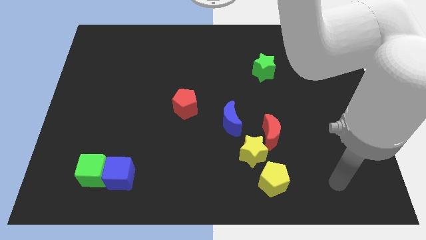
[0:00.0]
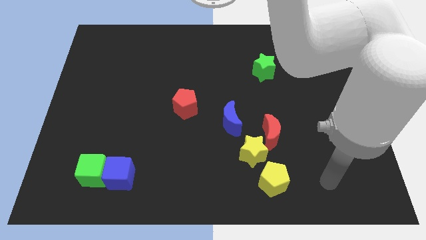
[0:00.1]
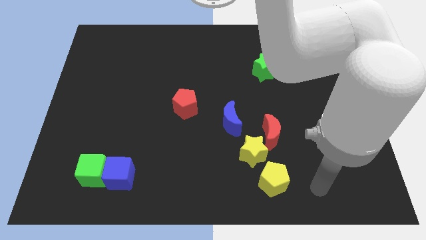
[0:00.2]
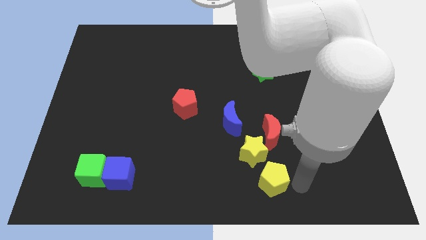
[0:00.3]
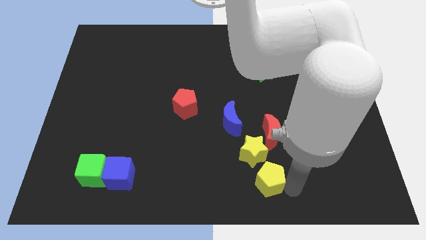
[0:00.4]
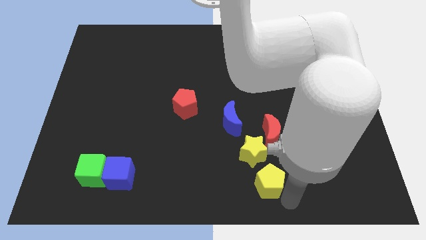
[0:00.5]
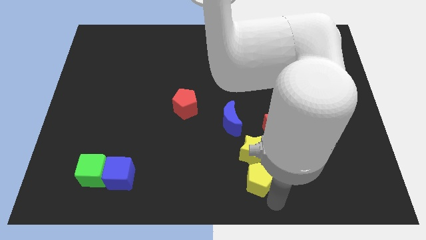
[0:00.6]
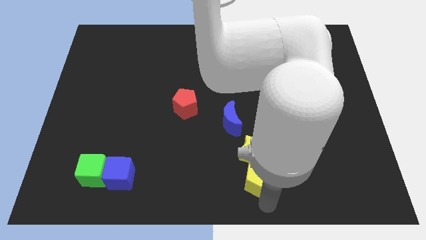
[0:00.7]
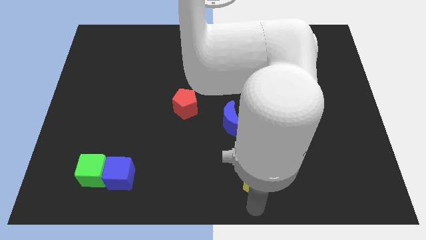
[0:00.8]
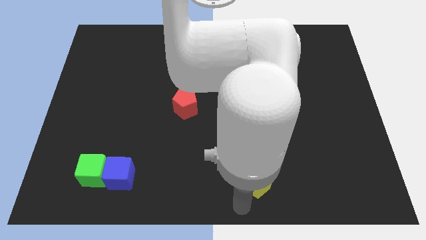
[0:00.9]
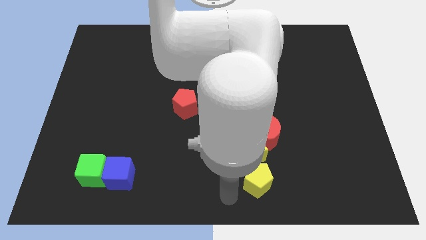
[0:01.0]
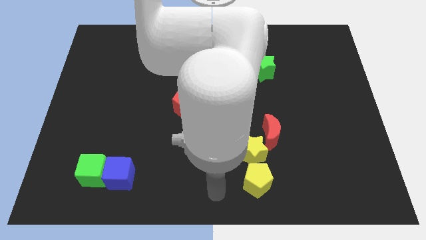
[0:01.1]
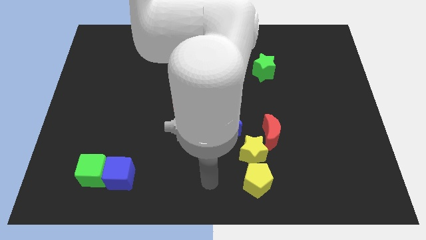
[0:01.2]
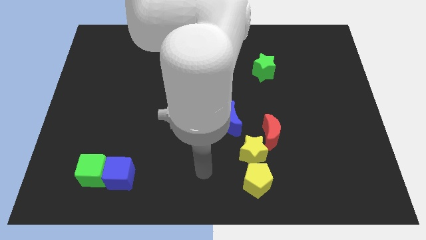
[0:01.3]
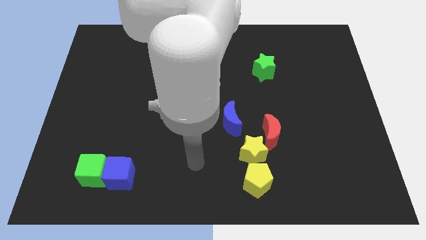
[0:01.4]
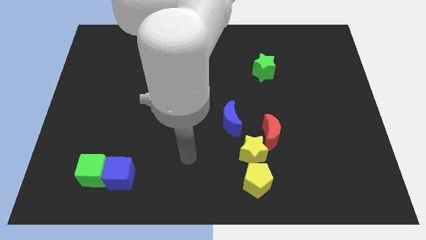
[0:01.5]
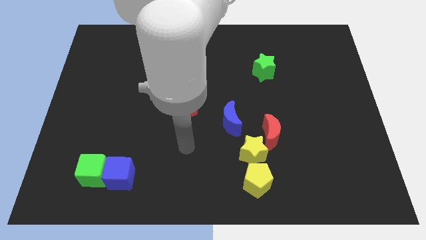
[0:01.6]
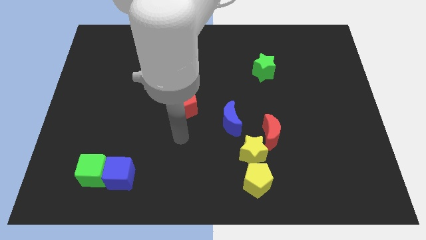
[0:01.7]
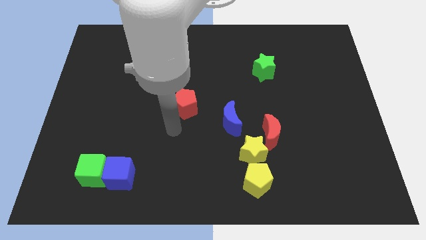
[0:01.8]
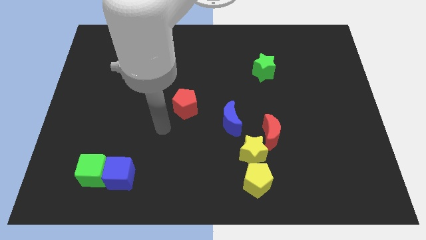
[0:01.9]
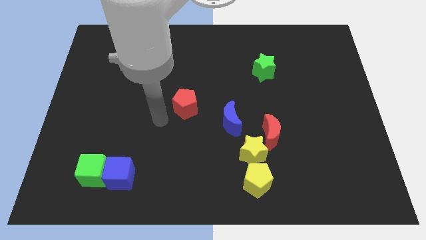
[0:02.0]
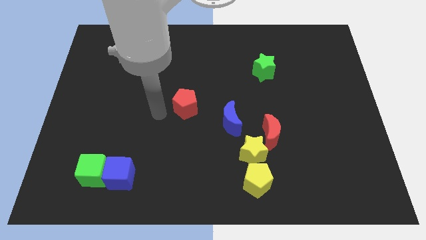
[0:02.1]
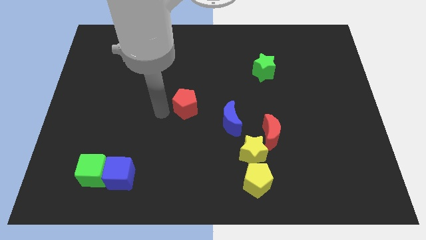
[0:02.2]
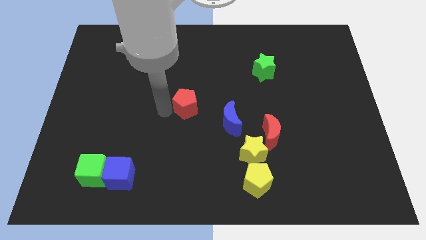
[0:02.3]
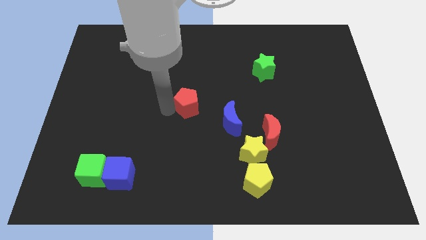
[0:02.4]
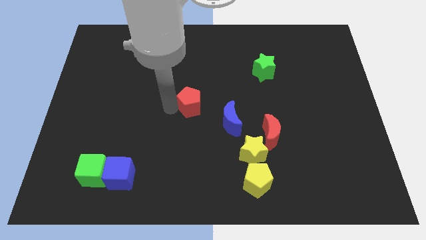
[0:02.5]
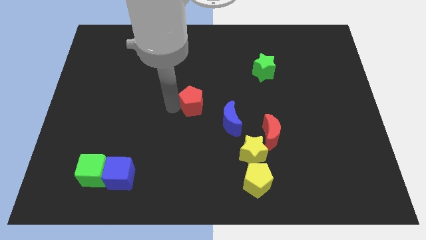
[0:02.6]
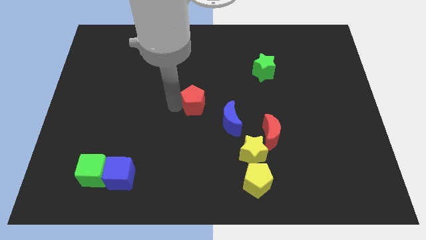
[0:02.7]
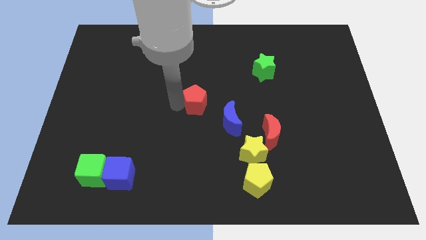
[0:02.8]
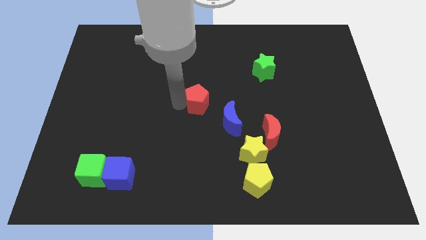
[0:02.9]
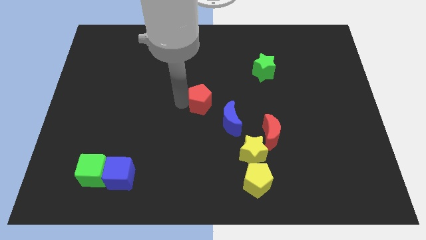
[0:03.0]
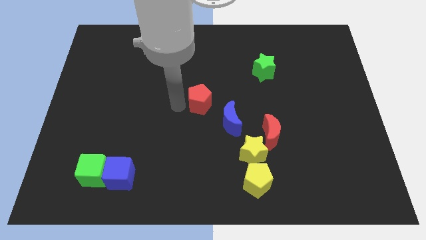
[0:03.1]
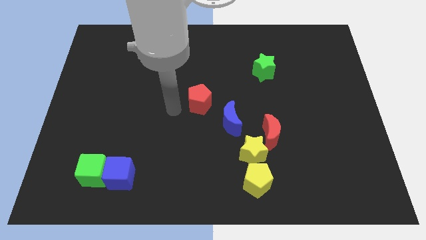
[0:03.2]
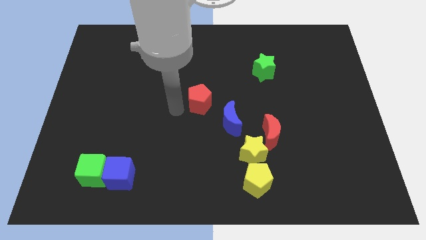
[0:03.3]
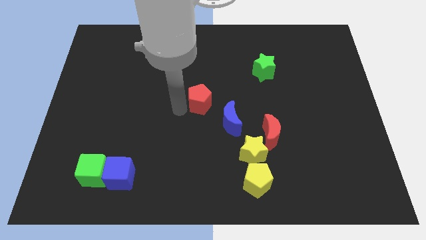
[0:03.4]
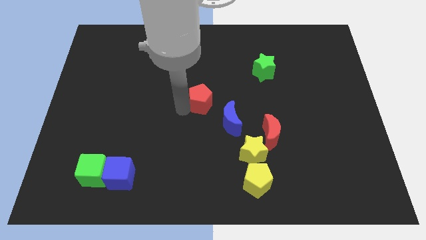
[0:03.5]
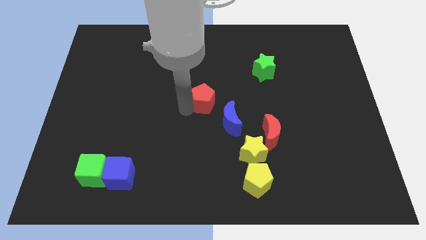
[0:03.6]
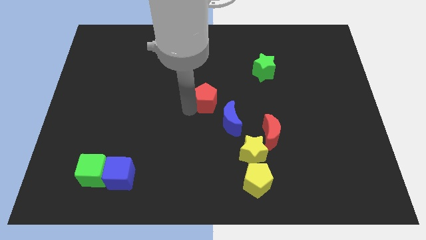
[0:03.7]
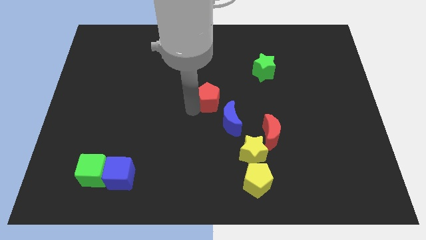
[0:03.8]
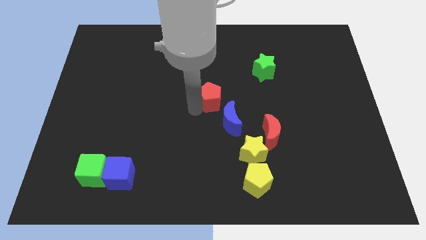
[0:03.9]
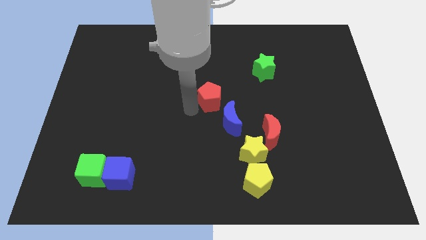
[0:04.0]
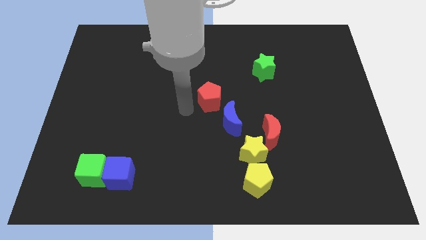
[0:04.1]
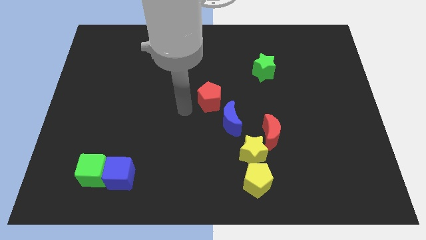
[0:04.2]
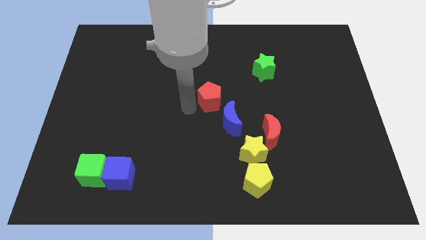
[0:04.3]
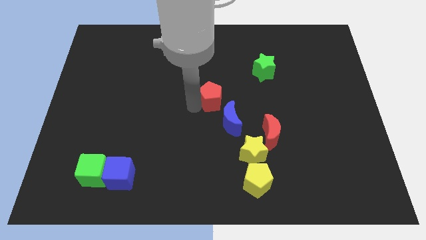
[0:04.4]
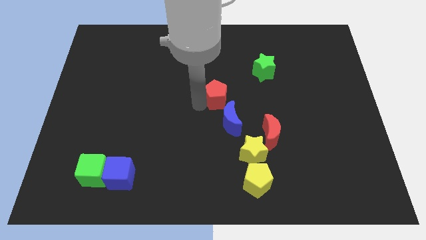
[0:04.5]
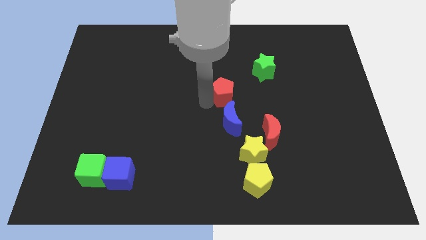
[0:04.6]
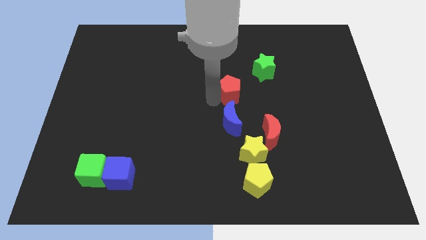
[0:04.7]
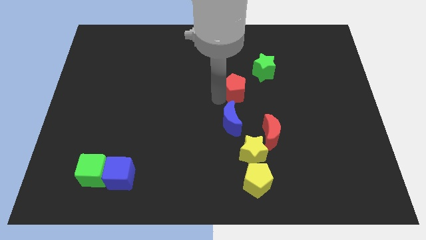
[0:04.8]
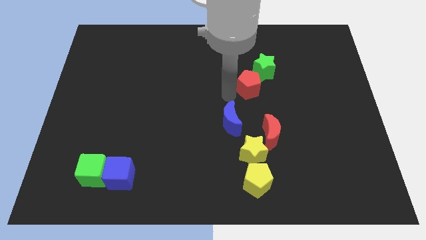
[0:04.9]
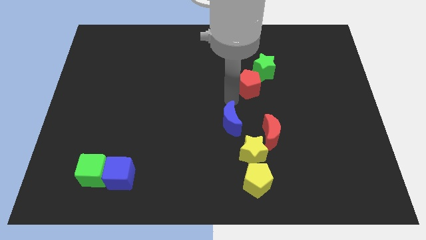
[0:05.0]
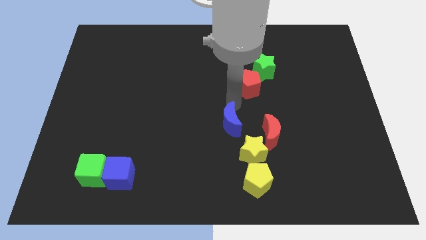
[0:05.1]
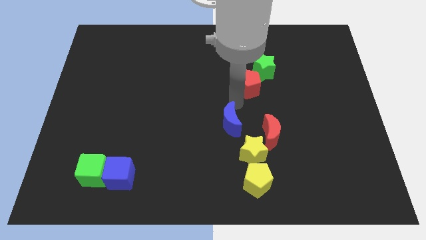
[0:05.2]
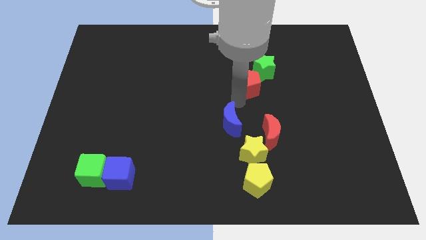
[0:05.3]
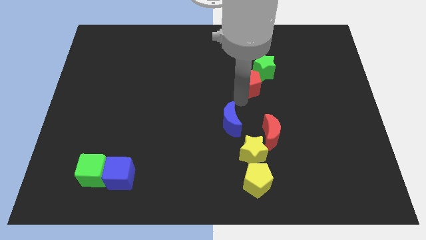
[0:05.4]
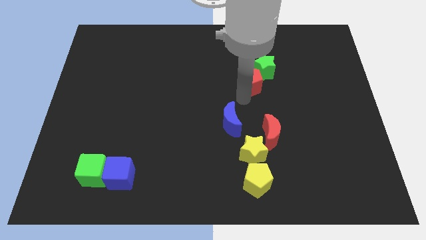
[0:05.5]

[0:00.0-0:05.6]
move the red pentagon to the green star

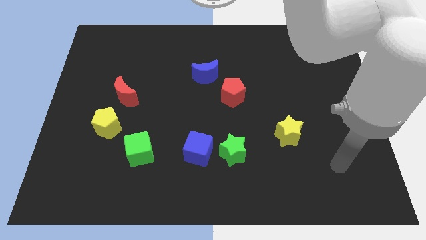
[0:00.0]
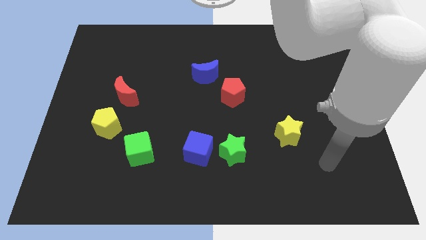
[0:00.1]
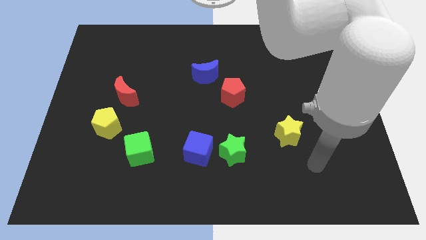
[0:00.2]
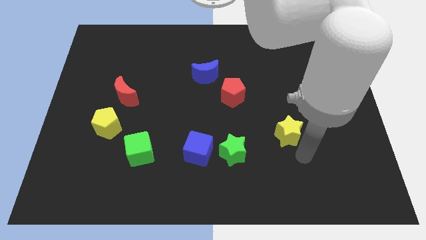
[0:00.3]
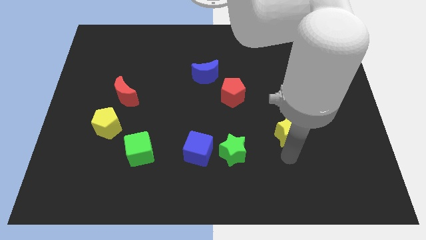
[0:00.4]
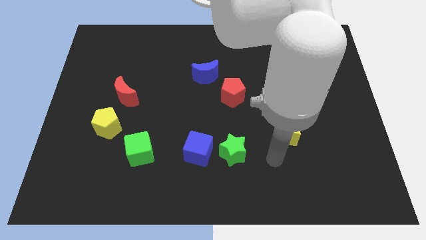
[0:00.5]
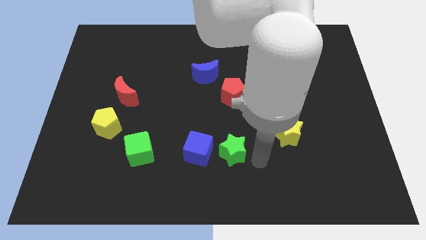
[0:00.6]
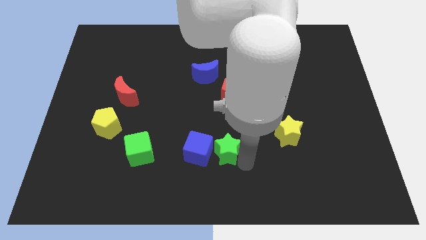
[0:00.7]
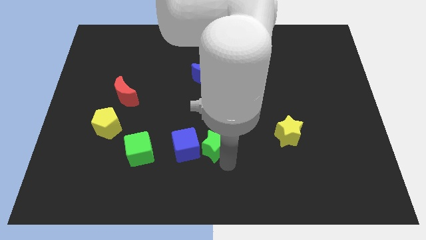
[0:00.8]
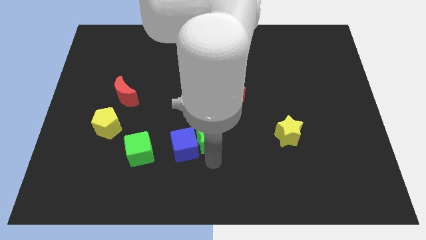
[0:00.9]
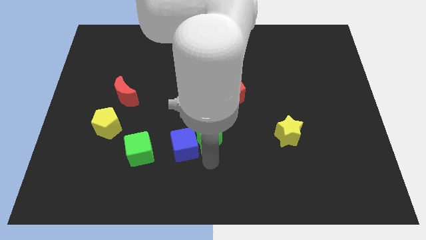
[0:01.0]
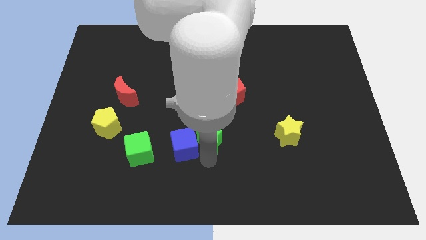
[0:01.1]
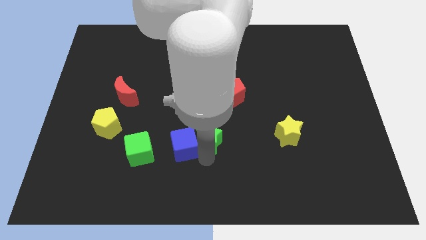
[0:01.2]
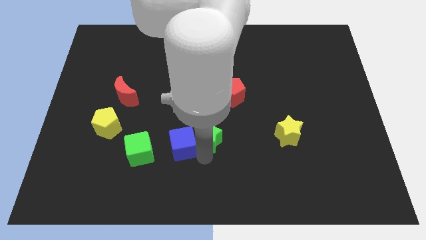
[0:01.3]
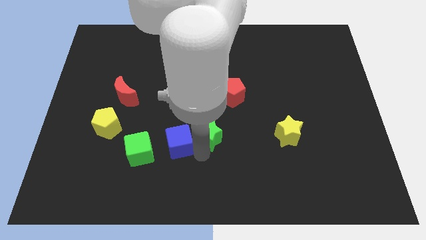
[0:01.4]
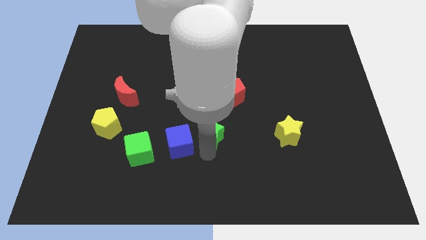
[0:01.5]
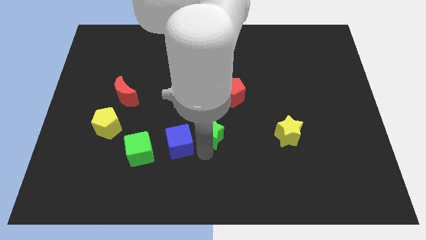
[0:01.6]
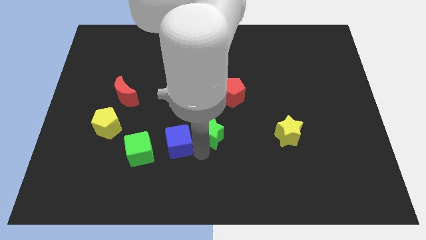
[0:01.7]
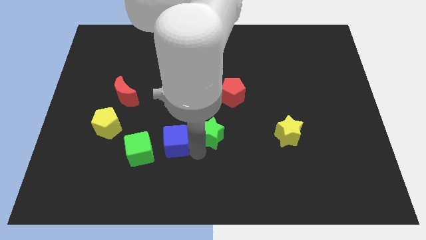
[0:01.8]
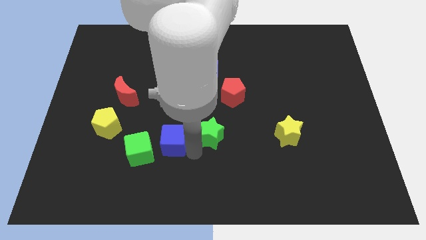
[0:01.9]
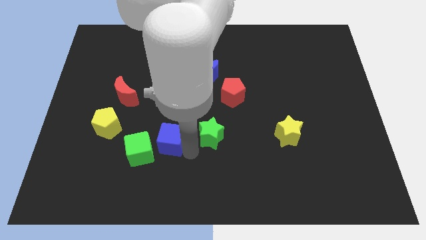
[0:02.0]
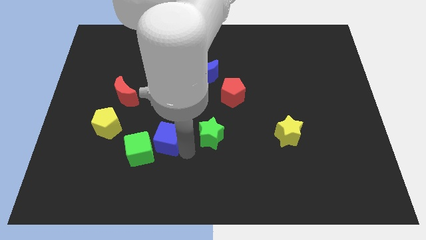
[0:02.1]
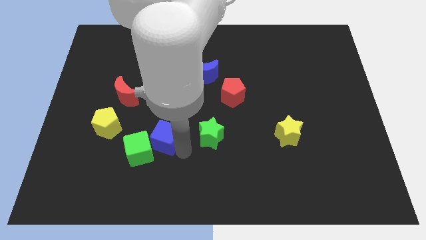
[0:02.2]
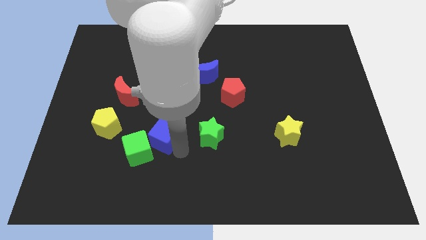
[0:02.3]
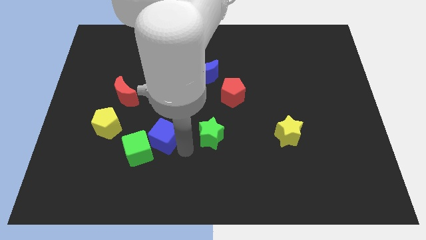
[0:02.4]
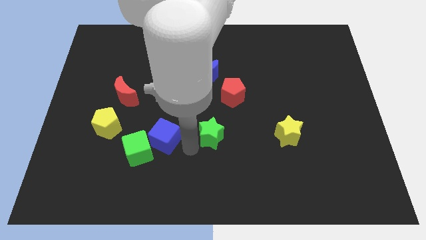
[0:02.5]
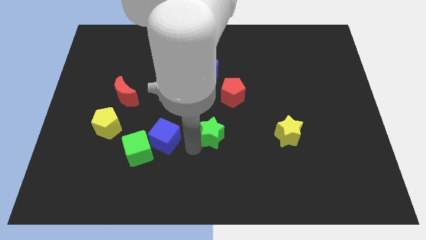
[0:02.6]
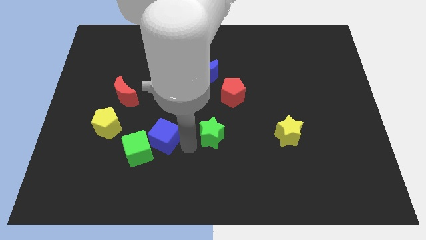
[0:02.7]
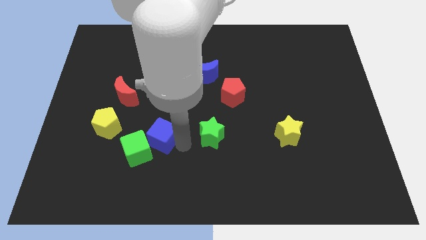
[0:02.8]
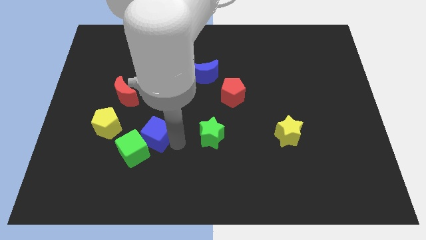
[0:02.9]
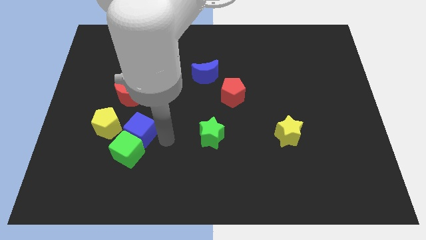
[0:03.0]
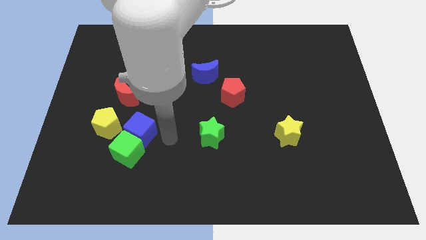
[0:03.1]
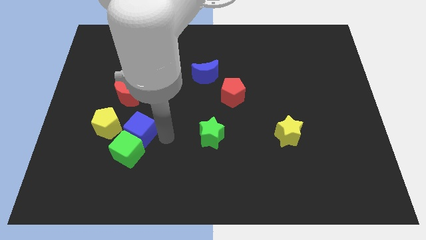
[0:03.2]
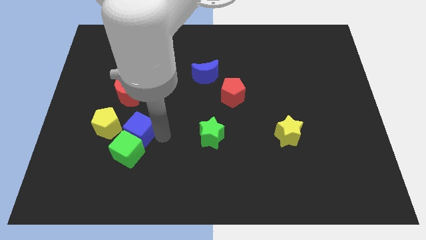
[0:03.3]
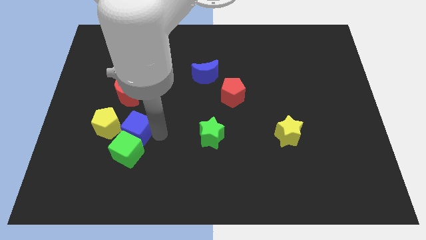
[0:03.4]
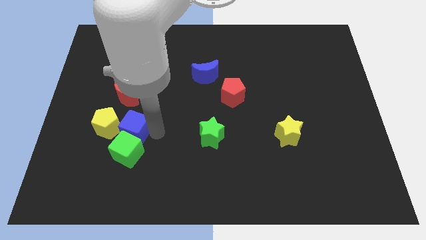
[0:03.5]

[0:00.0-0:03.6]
push the blue cube next to the yellow pentagon
